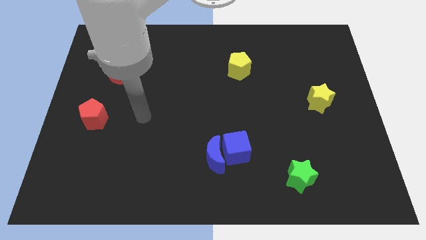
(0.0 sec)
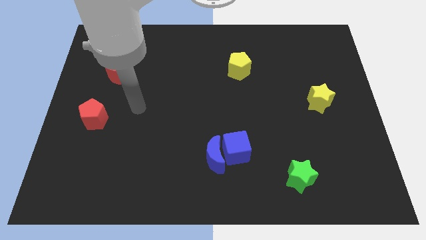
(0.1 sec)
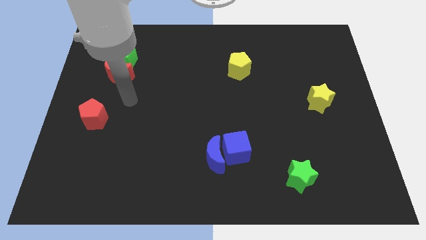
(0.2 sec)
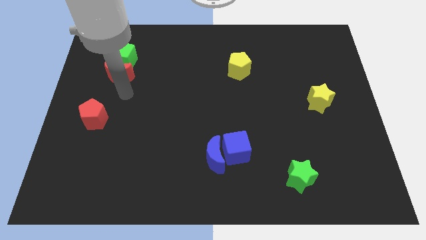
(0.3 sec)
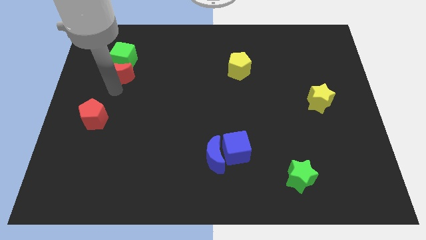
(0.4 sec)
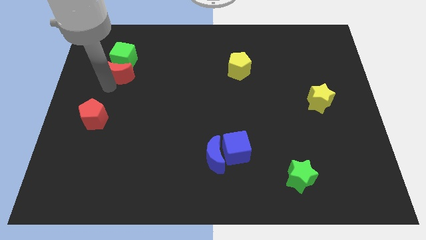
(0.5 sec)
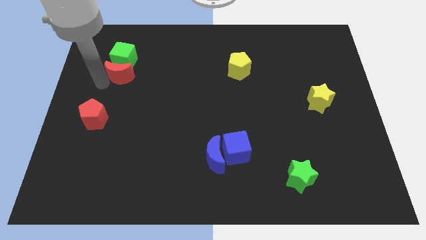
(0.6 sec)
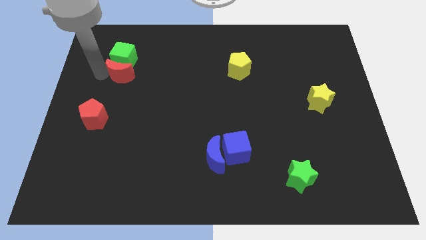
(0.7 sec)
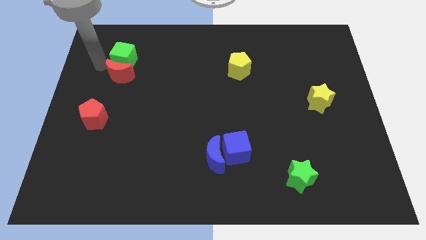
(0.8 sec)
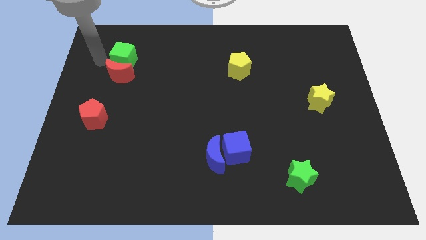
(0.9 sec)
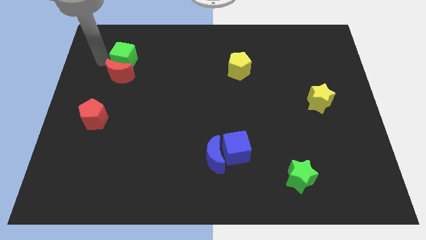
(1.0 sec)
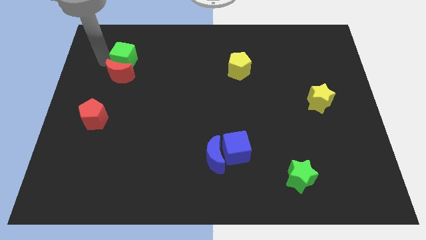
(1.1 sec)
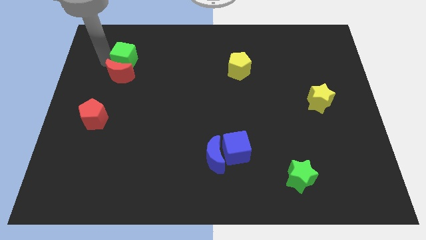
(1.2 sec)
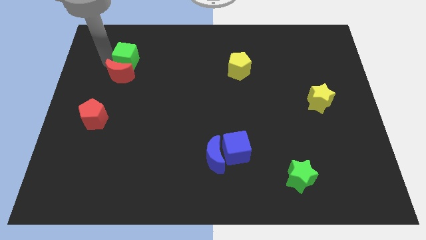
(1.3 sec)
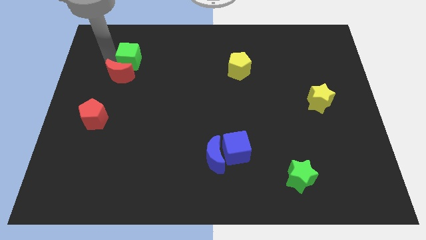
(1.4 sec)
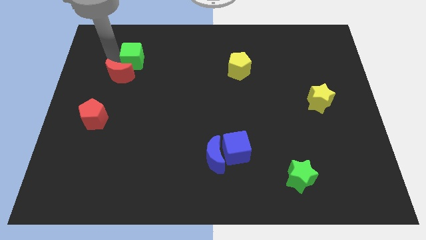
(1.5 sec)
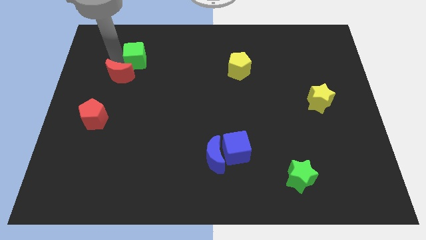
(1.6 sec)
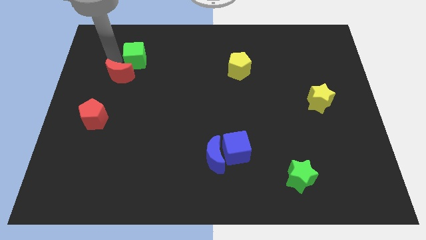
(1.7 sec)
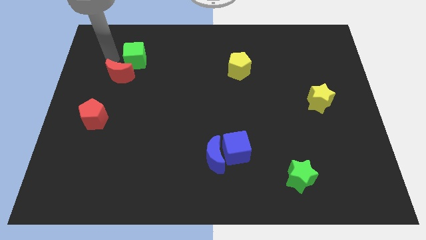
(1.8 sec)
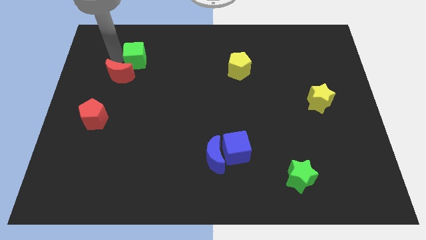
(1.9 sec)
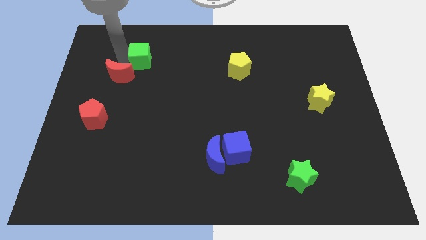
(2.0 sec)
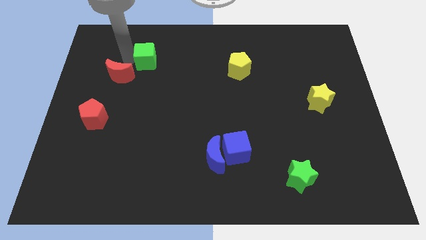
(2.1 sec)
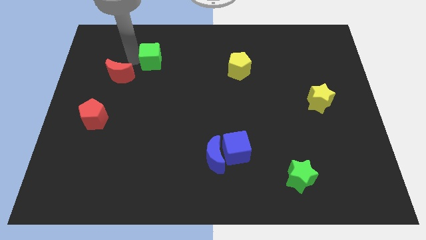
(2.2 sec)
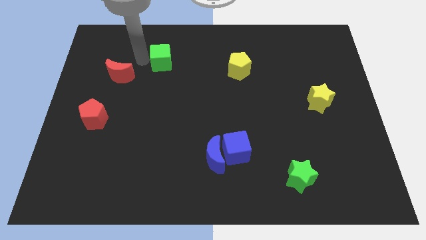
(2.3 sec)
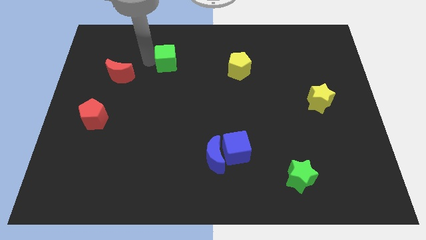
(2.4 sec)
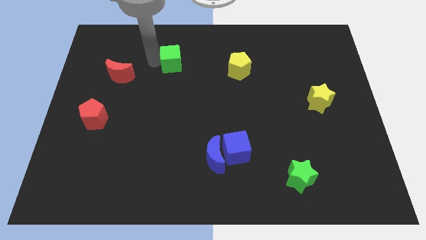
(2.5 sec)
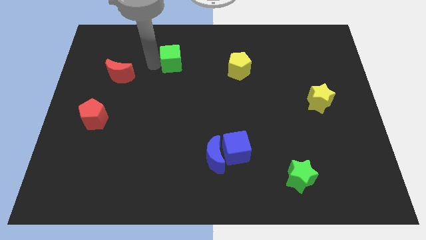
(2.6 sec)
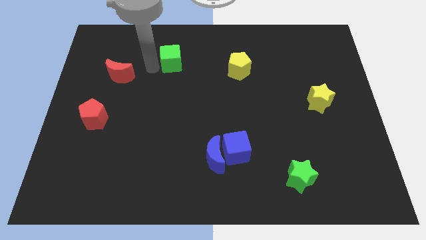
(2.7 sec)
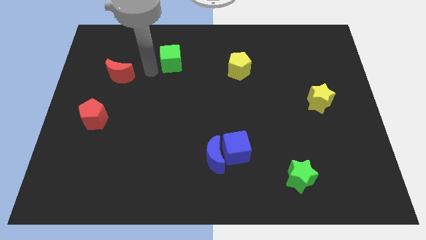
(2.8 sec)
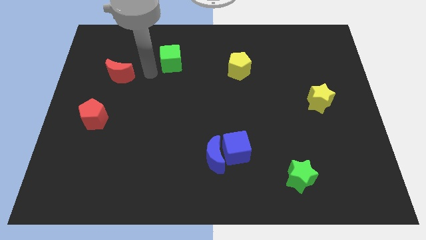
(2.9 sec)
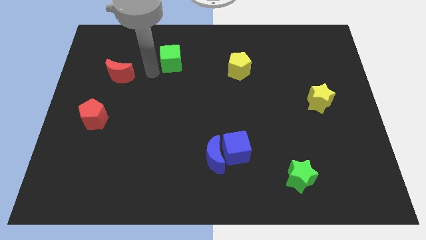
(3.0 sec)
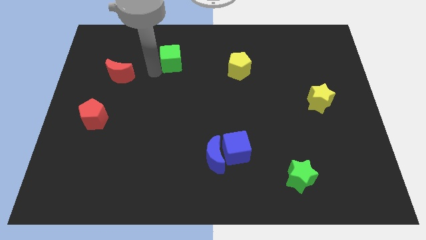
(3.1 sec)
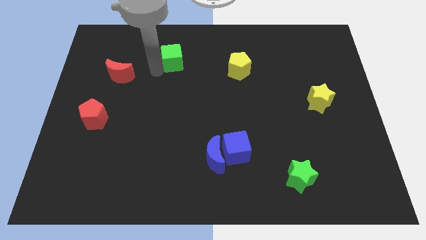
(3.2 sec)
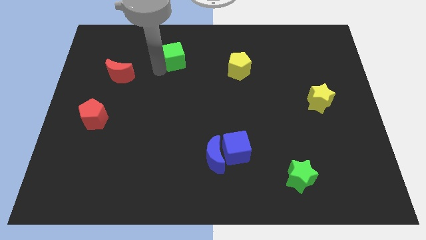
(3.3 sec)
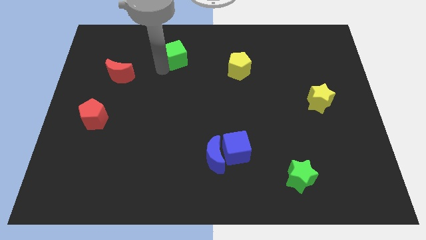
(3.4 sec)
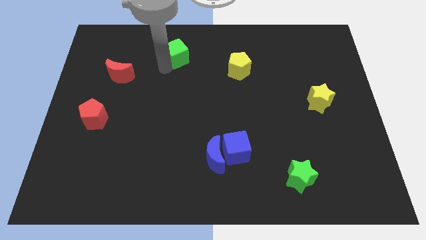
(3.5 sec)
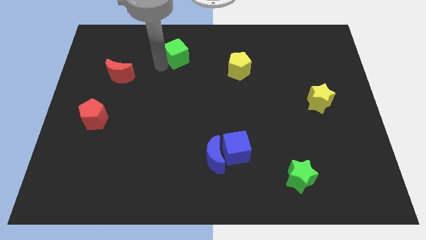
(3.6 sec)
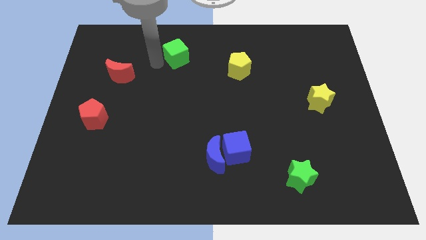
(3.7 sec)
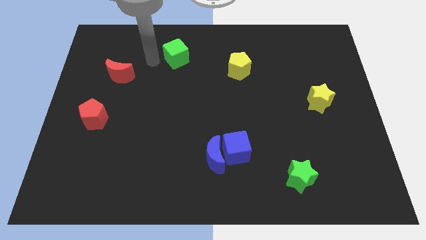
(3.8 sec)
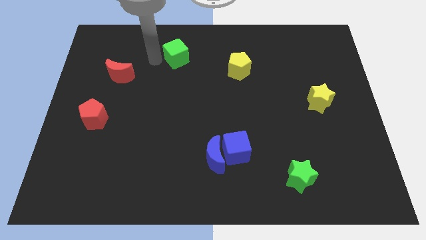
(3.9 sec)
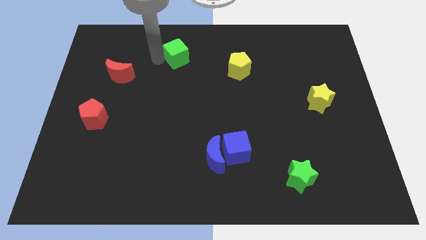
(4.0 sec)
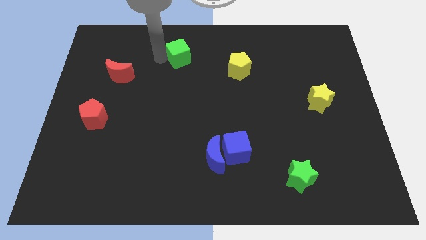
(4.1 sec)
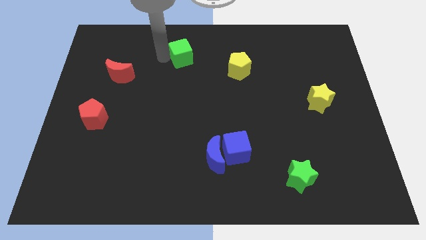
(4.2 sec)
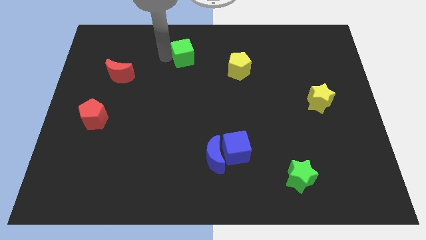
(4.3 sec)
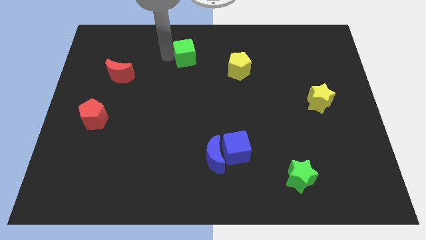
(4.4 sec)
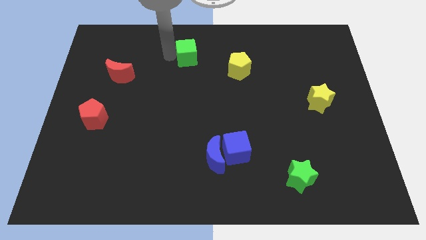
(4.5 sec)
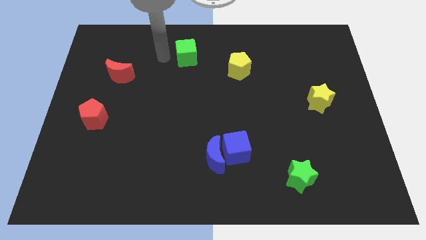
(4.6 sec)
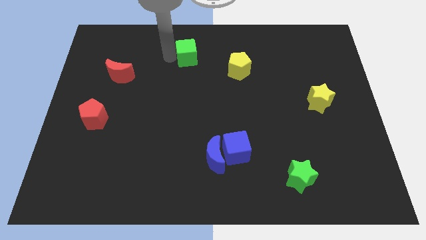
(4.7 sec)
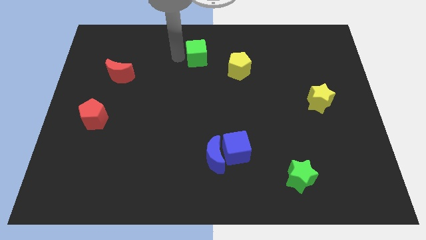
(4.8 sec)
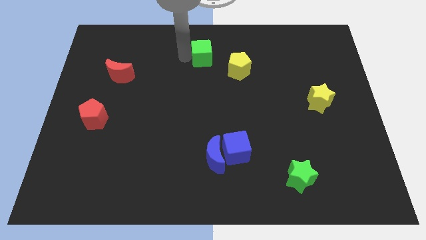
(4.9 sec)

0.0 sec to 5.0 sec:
push the green cube right

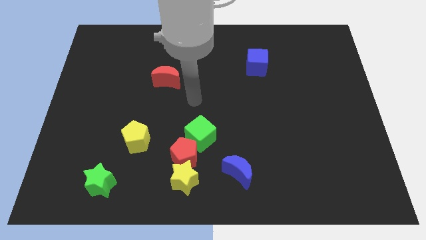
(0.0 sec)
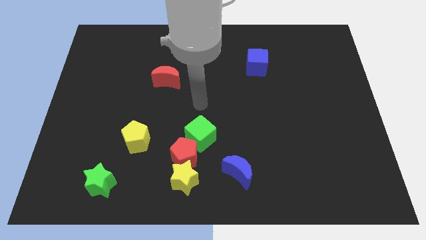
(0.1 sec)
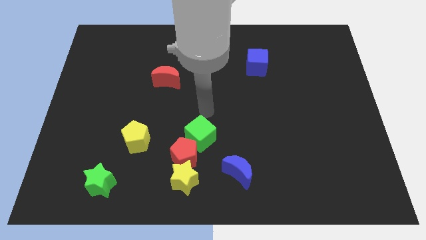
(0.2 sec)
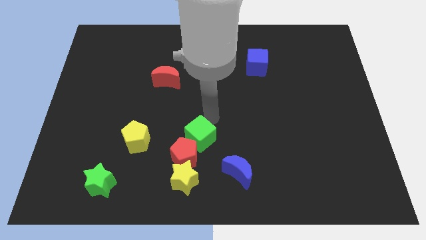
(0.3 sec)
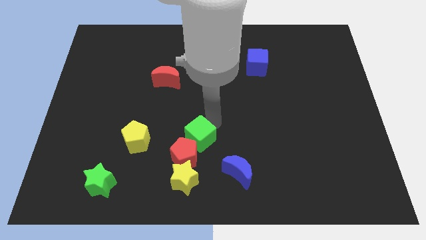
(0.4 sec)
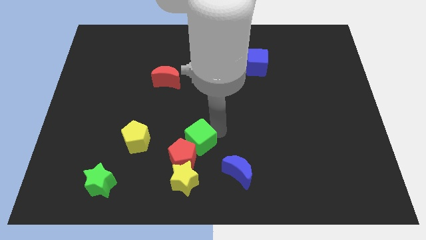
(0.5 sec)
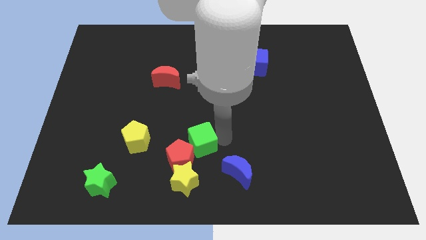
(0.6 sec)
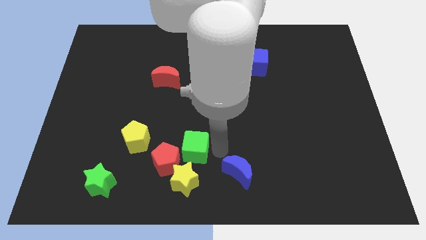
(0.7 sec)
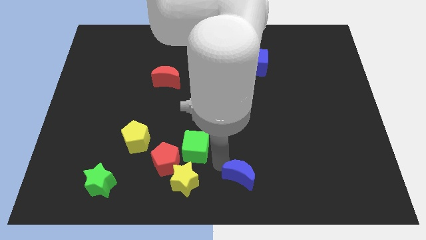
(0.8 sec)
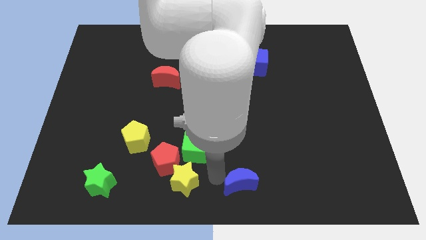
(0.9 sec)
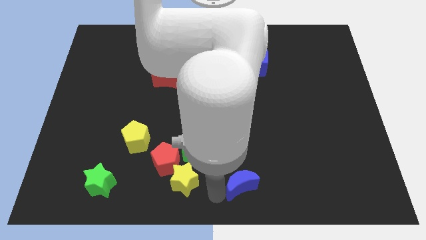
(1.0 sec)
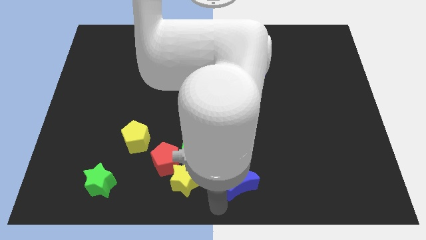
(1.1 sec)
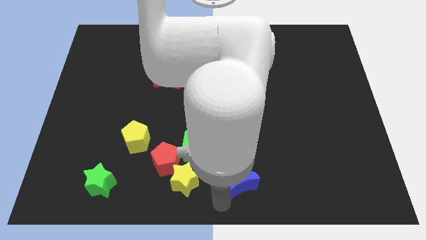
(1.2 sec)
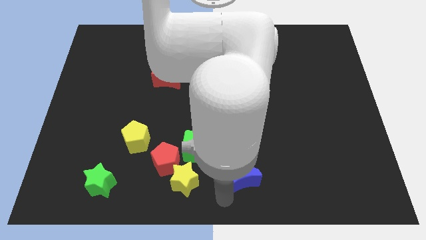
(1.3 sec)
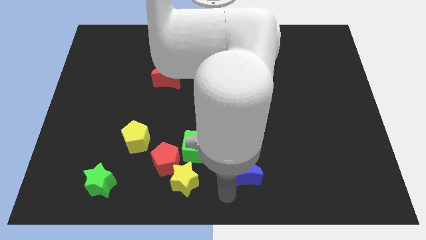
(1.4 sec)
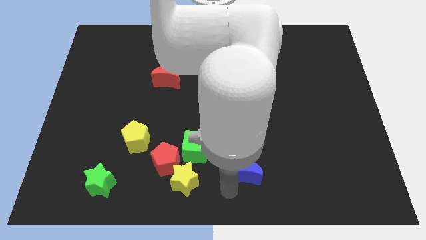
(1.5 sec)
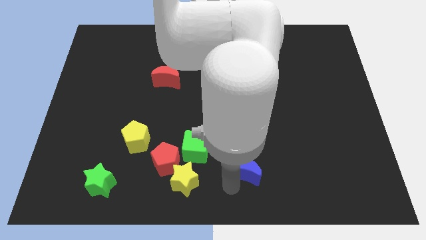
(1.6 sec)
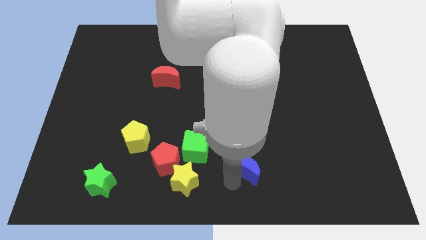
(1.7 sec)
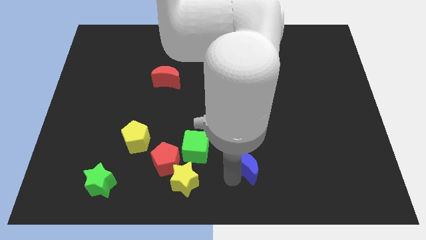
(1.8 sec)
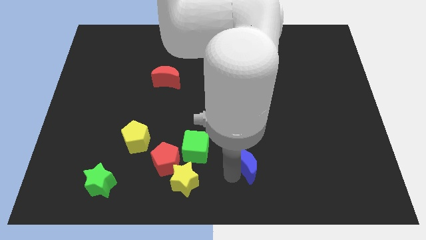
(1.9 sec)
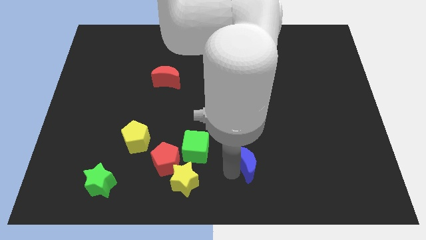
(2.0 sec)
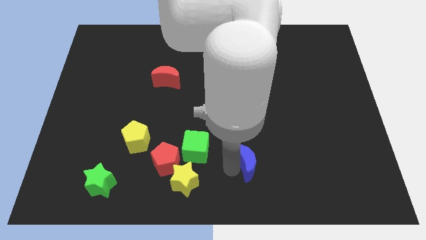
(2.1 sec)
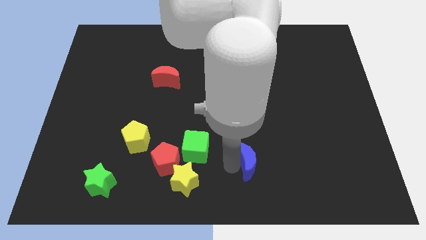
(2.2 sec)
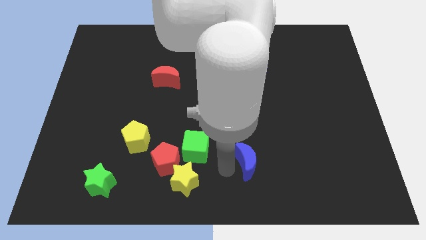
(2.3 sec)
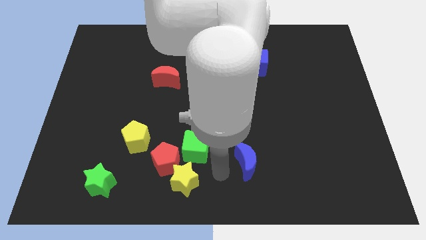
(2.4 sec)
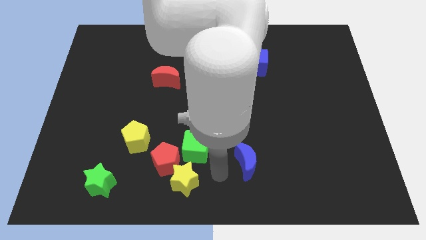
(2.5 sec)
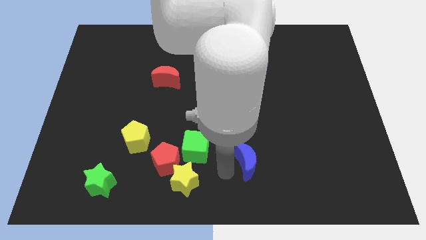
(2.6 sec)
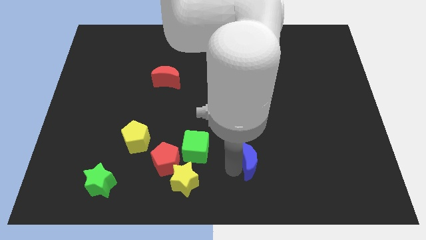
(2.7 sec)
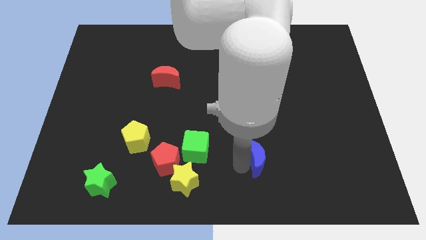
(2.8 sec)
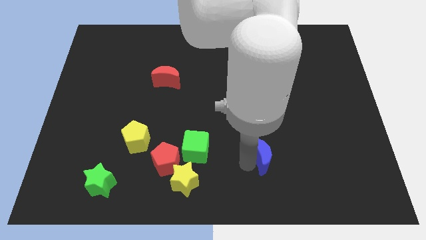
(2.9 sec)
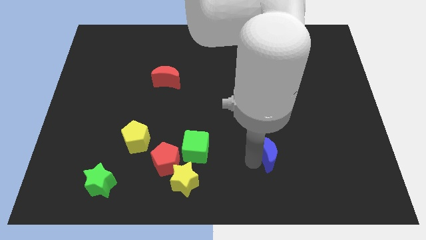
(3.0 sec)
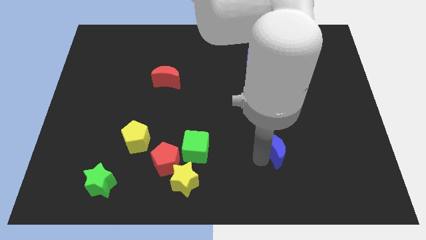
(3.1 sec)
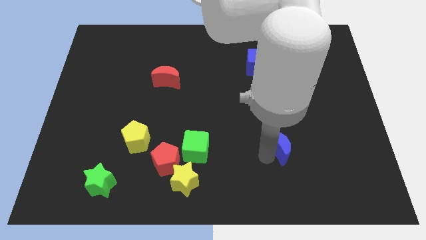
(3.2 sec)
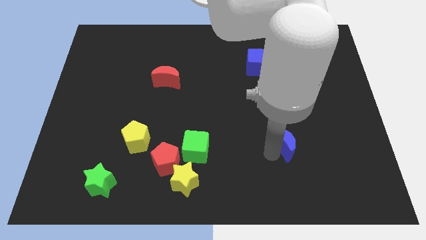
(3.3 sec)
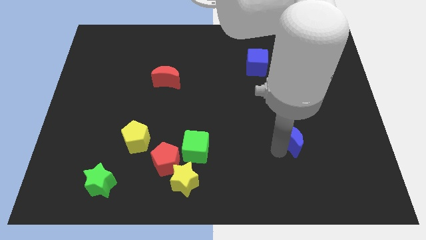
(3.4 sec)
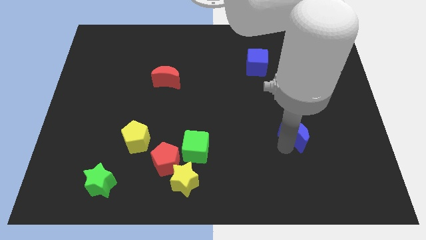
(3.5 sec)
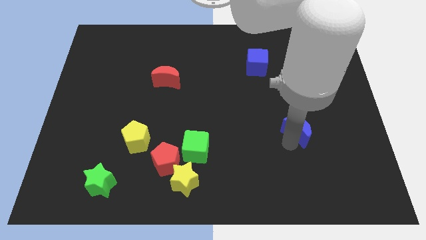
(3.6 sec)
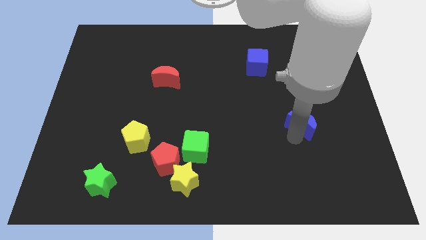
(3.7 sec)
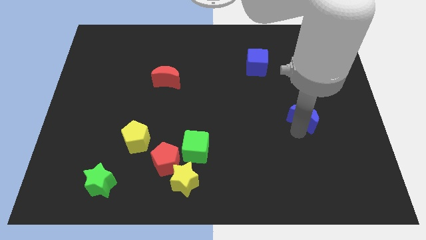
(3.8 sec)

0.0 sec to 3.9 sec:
move the blue moon up and to the right diagonally
